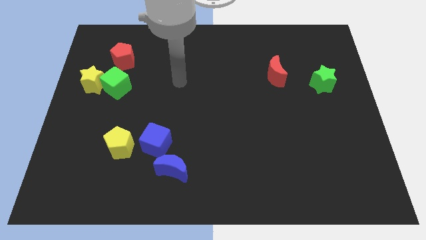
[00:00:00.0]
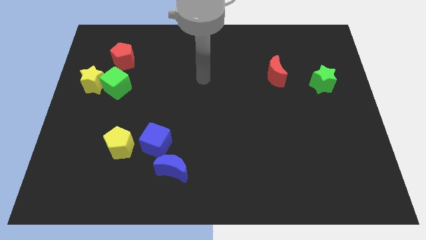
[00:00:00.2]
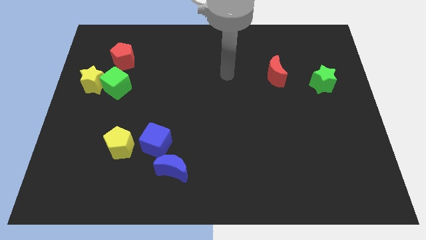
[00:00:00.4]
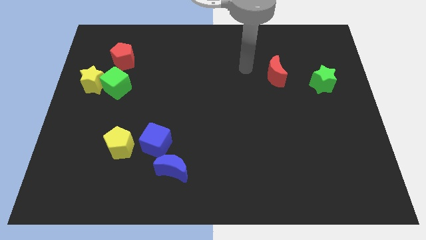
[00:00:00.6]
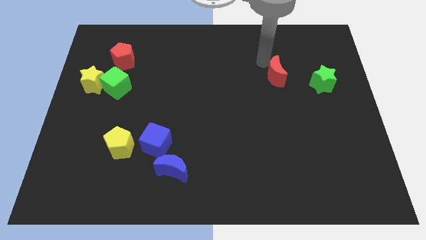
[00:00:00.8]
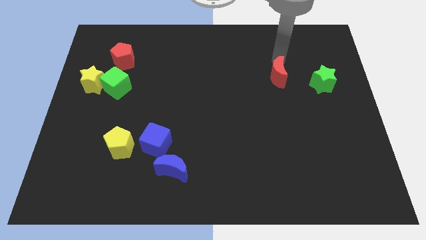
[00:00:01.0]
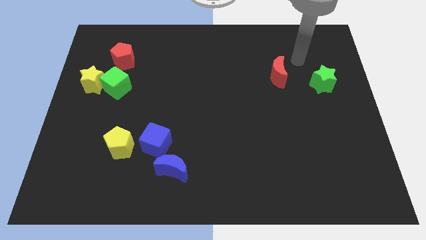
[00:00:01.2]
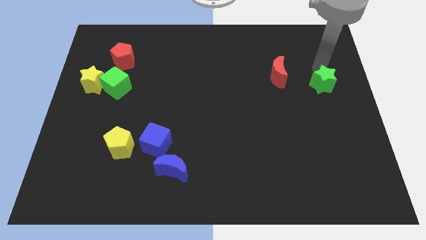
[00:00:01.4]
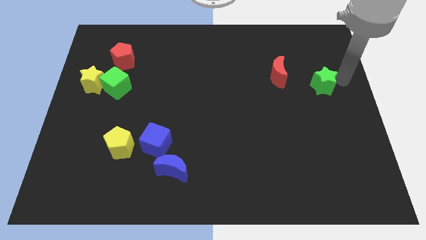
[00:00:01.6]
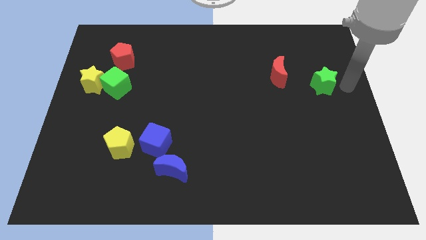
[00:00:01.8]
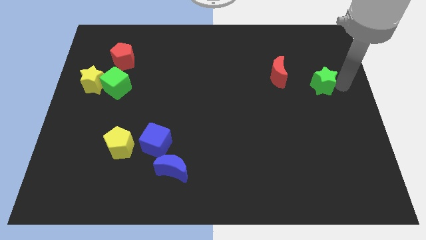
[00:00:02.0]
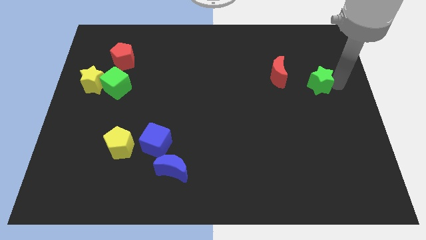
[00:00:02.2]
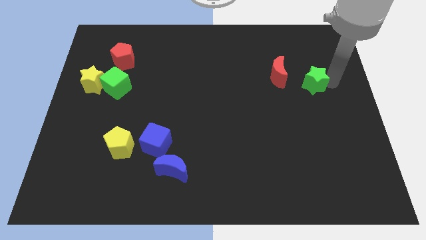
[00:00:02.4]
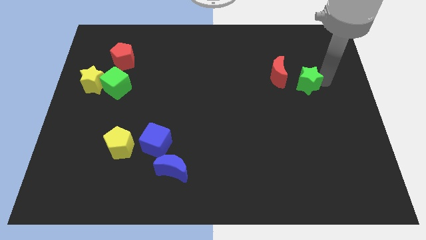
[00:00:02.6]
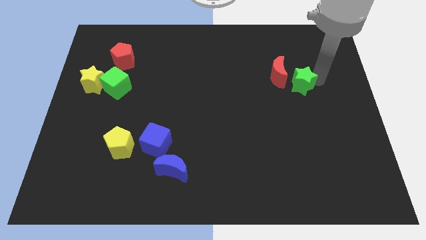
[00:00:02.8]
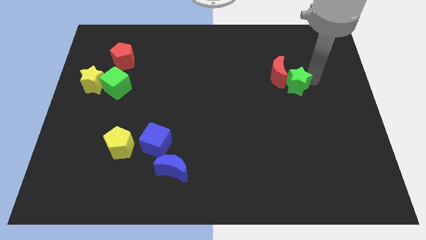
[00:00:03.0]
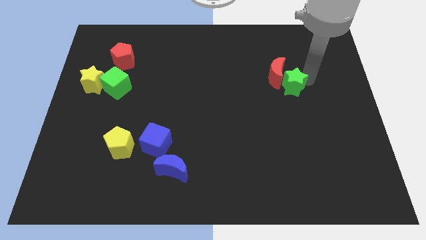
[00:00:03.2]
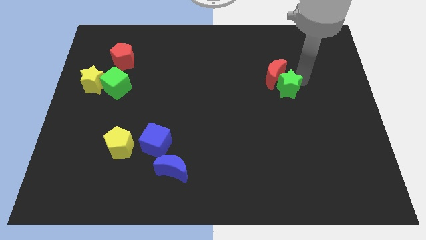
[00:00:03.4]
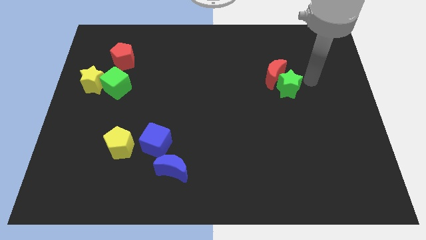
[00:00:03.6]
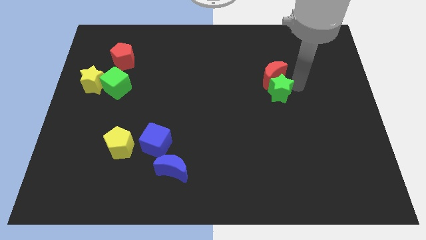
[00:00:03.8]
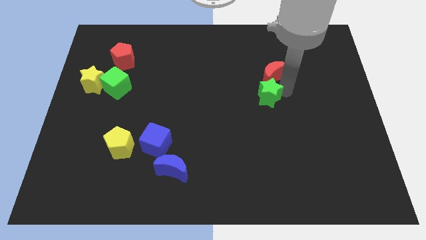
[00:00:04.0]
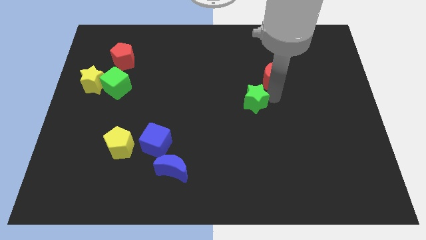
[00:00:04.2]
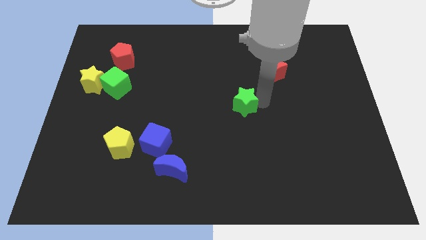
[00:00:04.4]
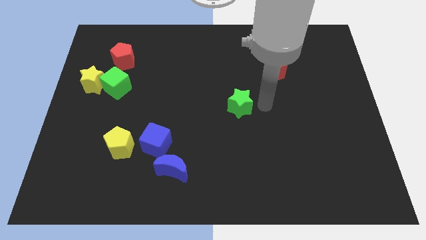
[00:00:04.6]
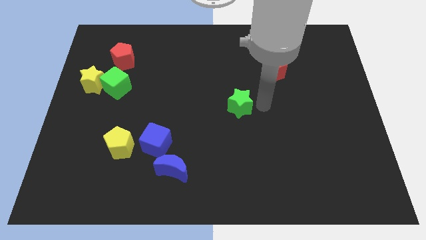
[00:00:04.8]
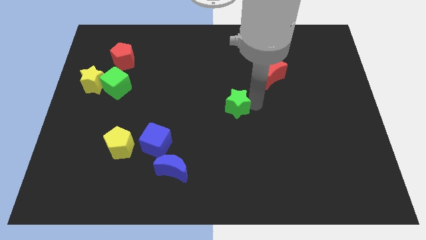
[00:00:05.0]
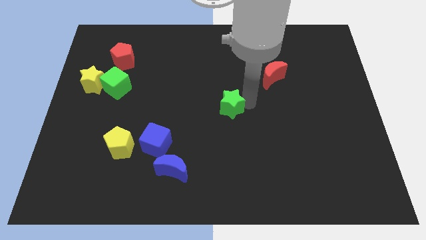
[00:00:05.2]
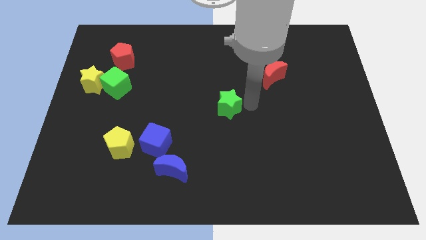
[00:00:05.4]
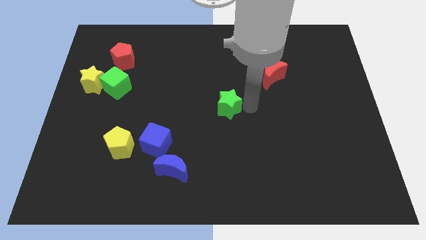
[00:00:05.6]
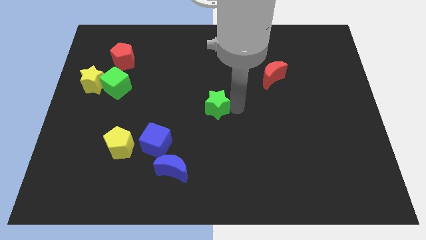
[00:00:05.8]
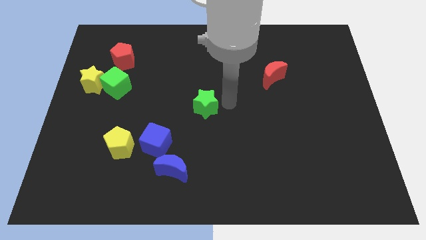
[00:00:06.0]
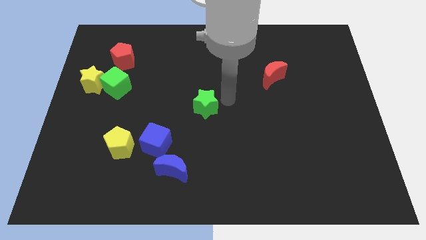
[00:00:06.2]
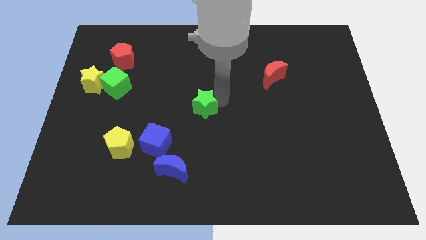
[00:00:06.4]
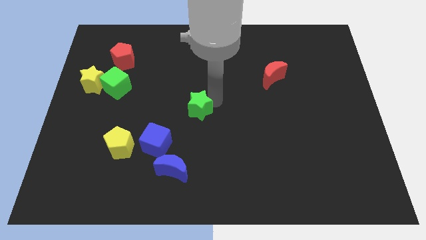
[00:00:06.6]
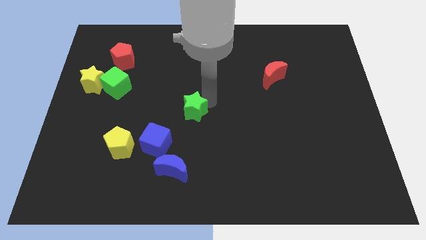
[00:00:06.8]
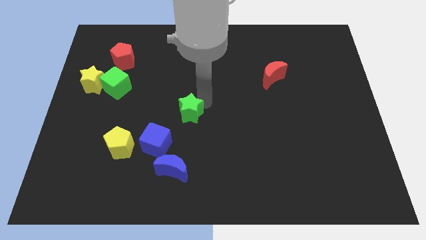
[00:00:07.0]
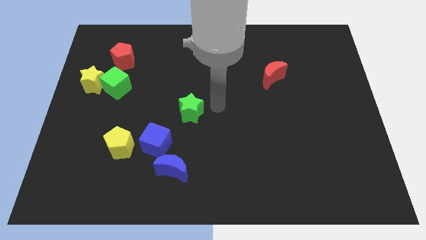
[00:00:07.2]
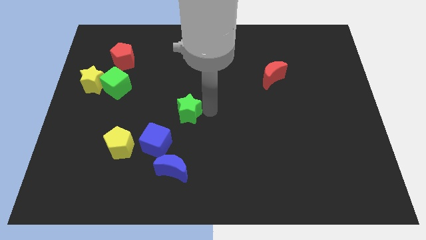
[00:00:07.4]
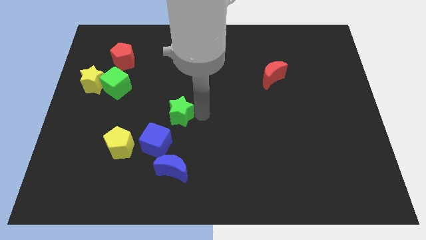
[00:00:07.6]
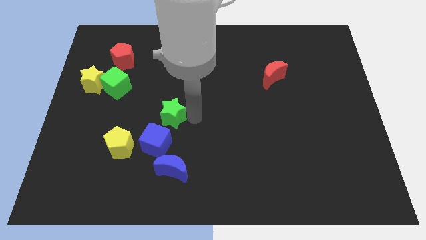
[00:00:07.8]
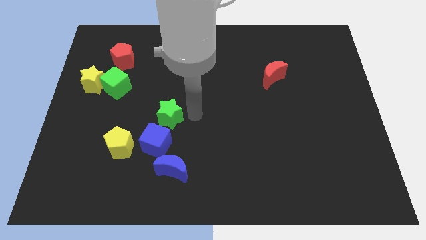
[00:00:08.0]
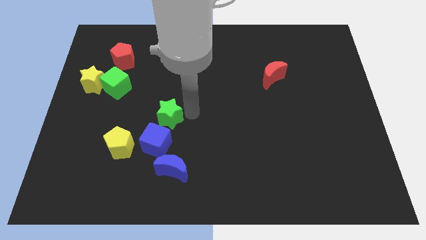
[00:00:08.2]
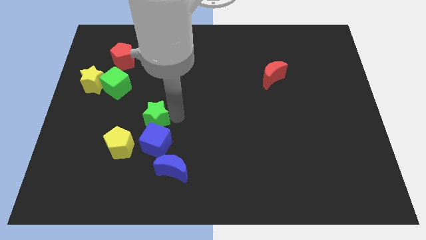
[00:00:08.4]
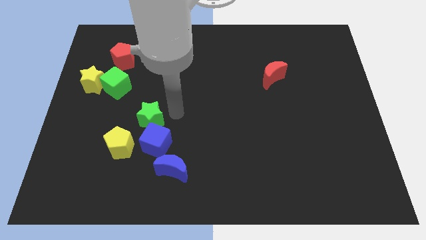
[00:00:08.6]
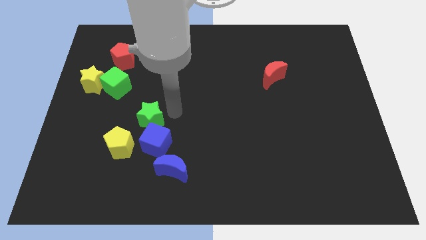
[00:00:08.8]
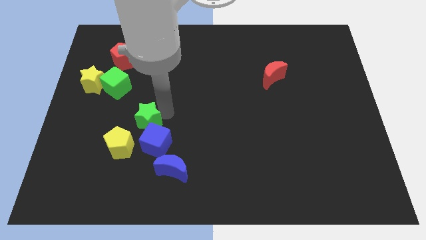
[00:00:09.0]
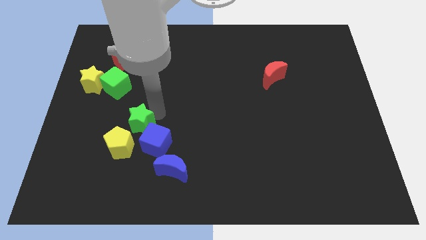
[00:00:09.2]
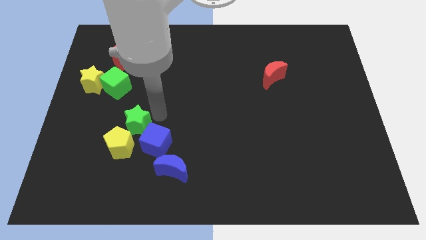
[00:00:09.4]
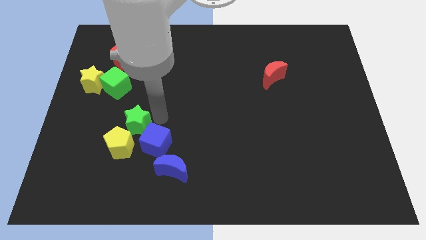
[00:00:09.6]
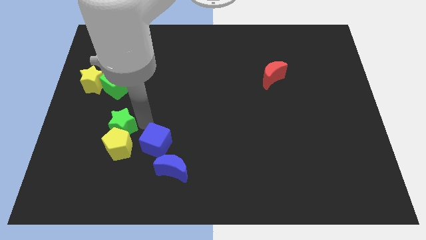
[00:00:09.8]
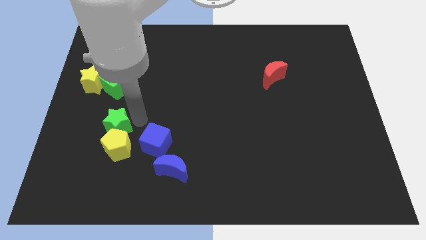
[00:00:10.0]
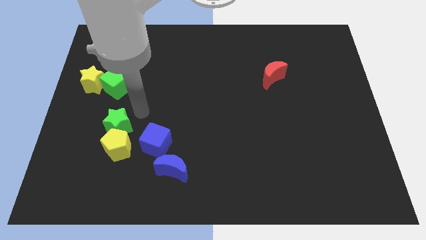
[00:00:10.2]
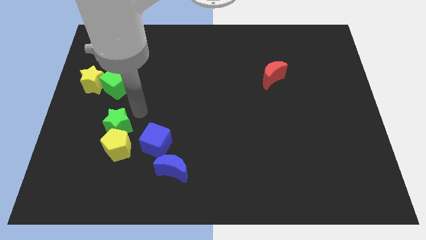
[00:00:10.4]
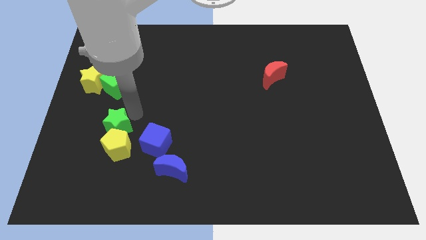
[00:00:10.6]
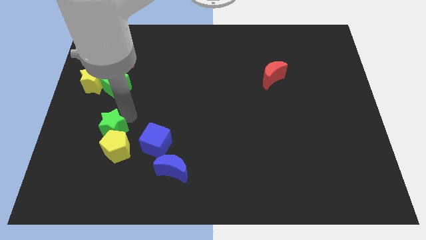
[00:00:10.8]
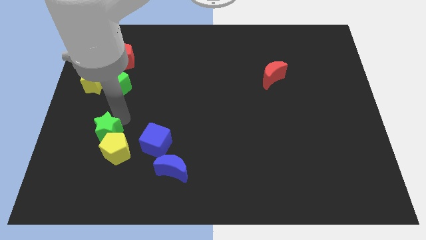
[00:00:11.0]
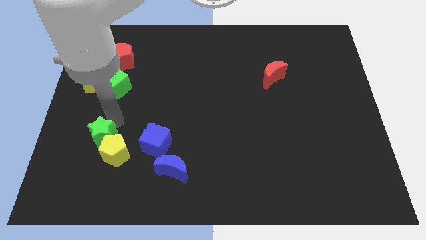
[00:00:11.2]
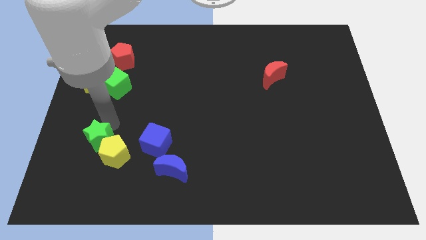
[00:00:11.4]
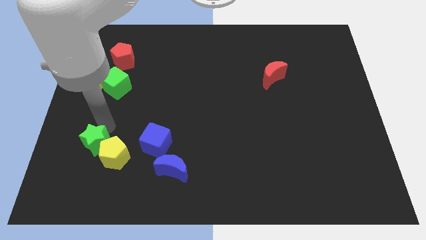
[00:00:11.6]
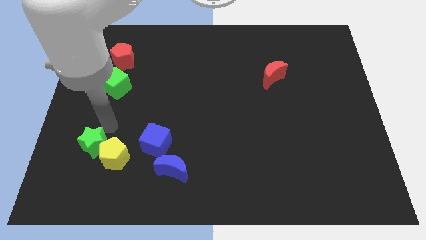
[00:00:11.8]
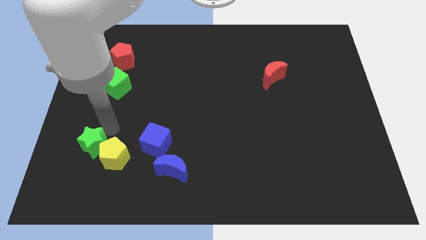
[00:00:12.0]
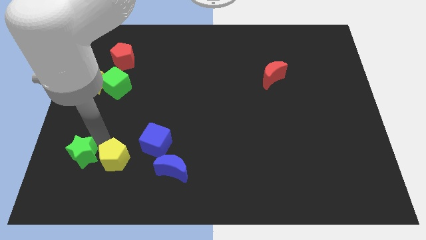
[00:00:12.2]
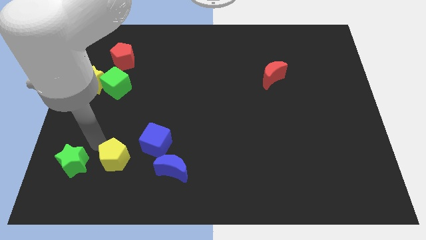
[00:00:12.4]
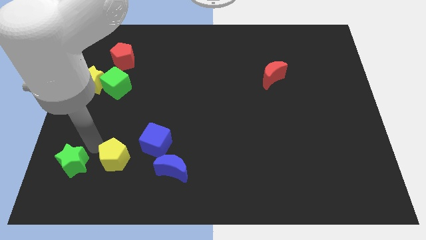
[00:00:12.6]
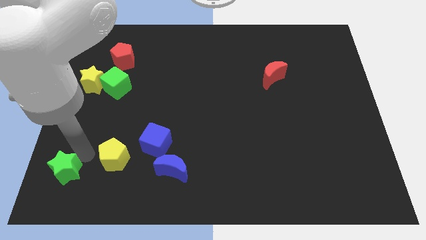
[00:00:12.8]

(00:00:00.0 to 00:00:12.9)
move the green star to the lower left corner
